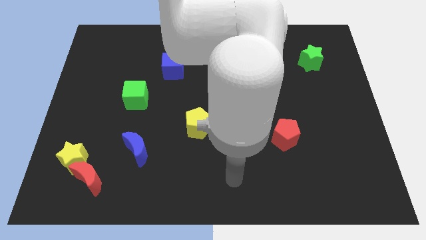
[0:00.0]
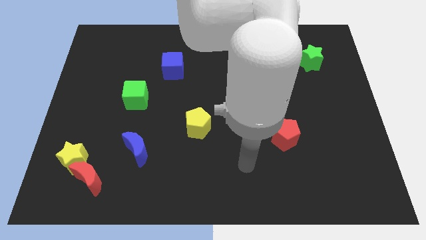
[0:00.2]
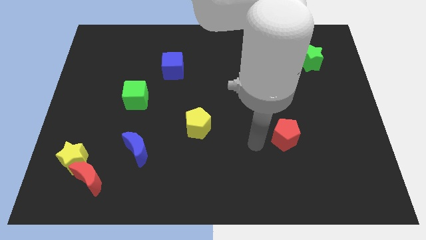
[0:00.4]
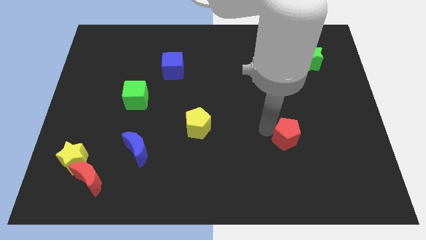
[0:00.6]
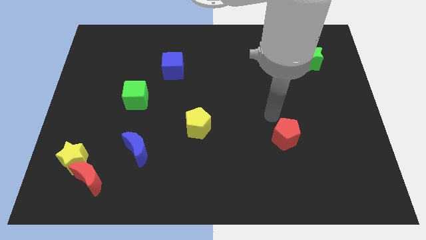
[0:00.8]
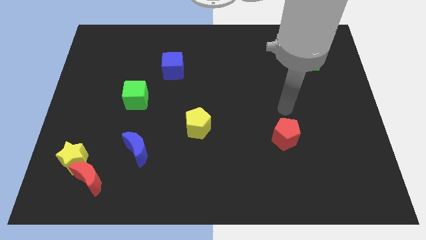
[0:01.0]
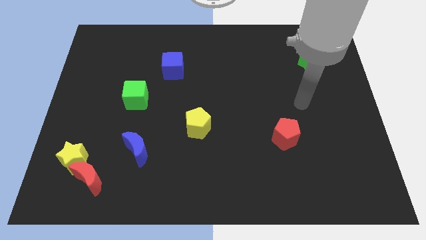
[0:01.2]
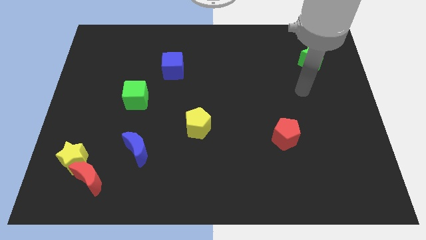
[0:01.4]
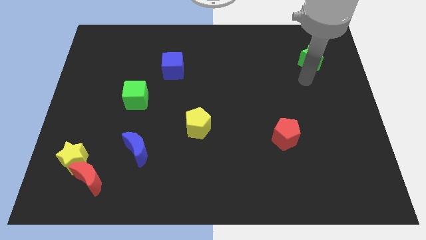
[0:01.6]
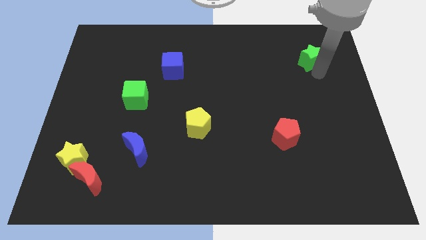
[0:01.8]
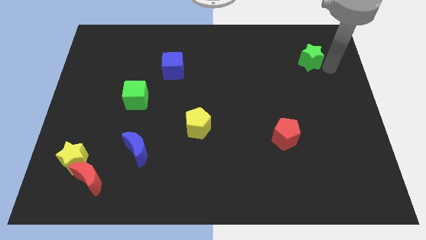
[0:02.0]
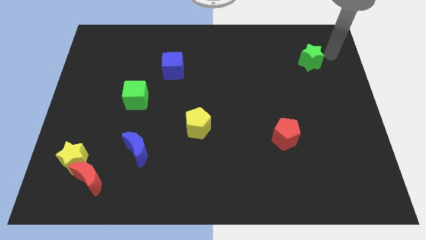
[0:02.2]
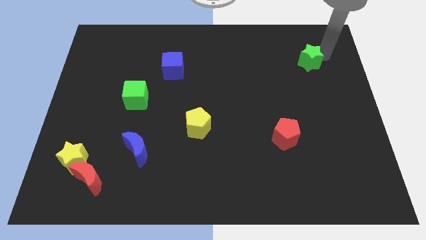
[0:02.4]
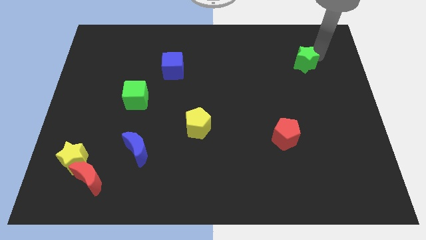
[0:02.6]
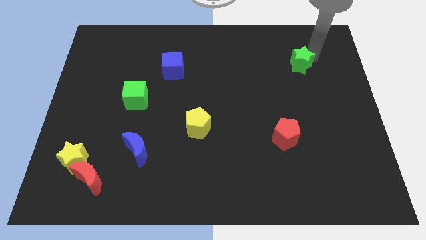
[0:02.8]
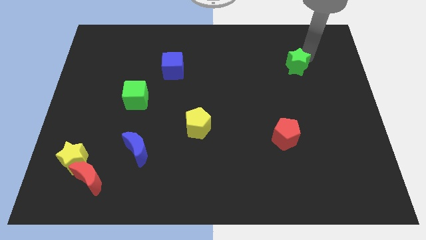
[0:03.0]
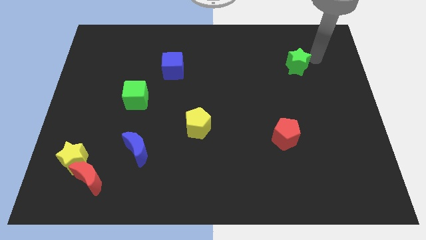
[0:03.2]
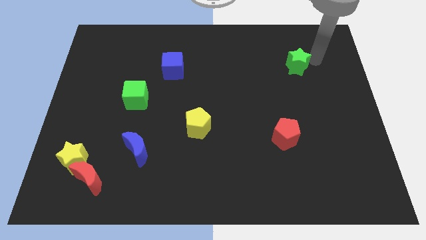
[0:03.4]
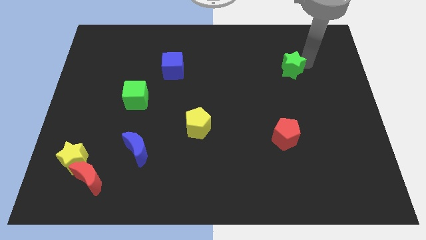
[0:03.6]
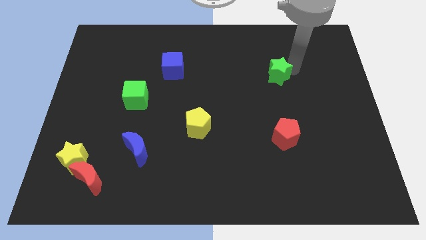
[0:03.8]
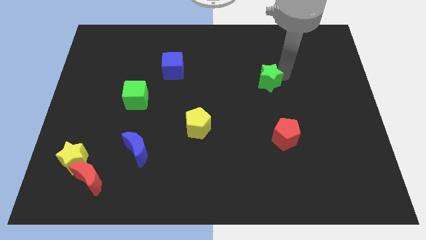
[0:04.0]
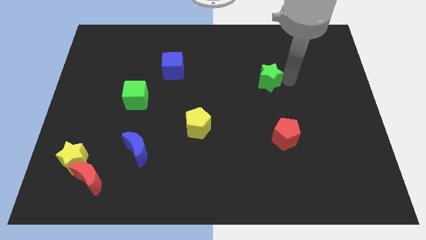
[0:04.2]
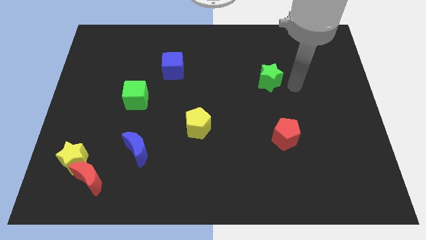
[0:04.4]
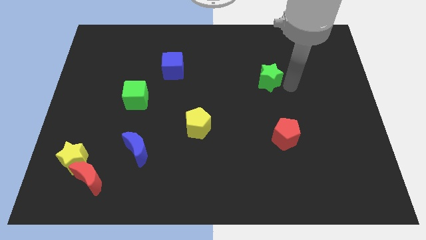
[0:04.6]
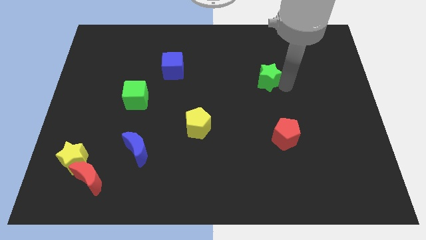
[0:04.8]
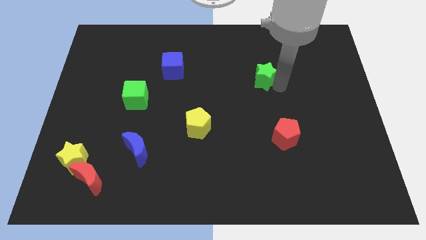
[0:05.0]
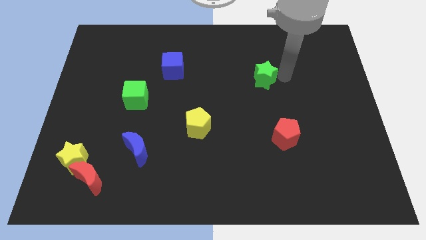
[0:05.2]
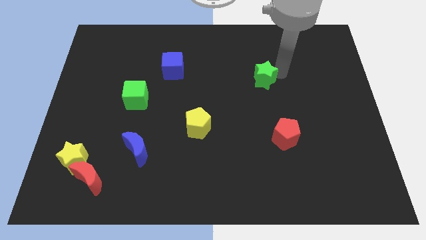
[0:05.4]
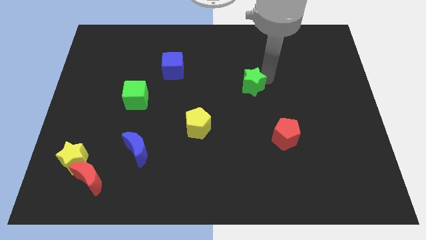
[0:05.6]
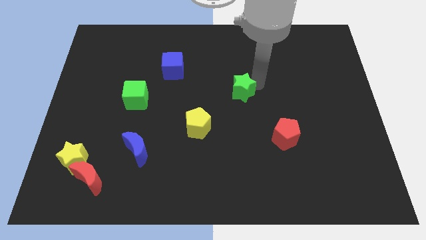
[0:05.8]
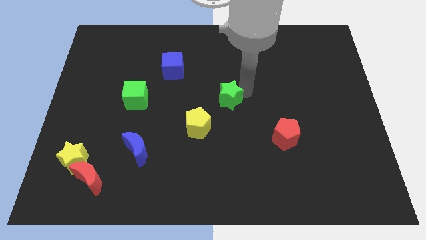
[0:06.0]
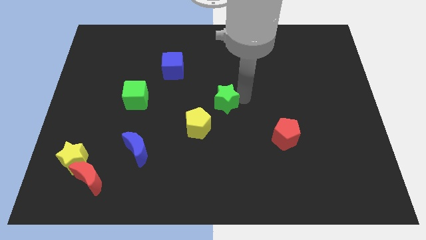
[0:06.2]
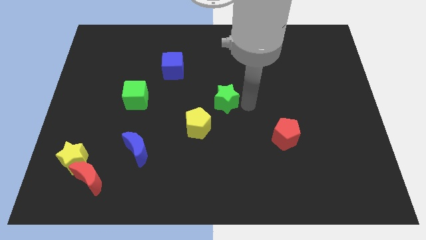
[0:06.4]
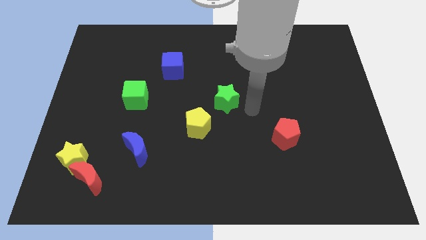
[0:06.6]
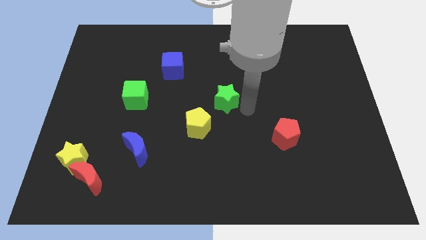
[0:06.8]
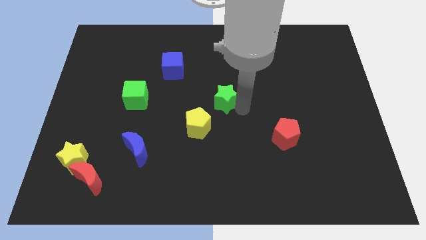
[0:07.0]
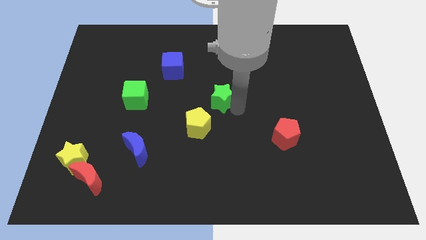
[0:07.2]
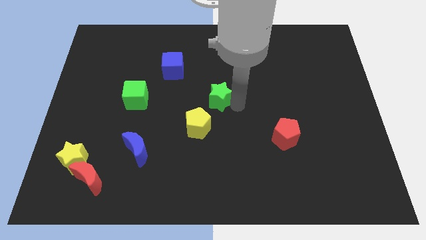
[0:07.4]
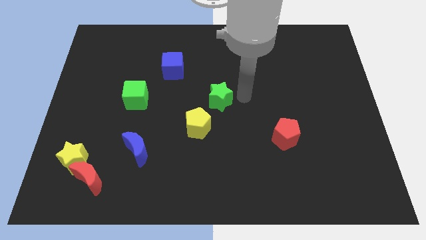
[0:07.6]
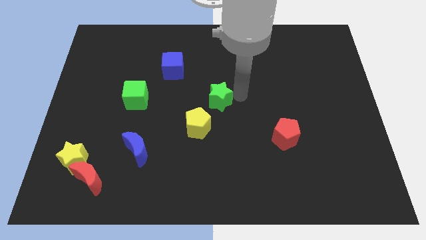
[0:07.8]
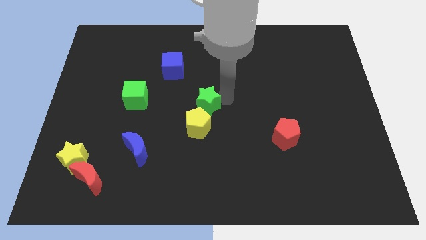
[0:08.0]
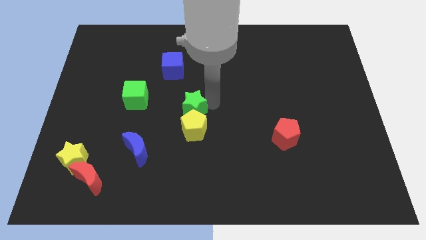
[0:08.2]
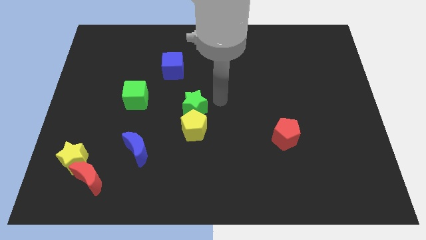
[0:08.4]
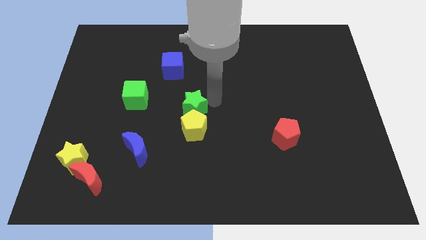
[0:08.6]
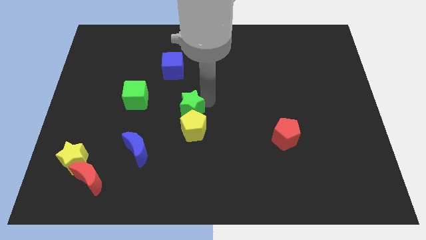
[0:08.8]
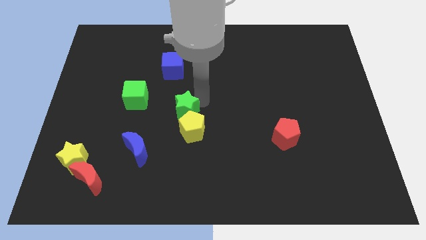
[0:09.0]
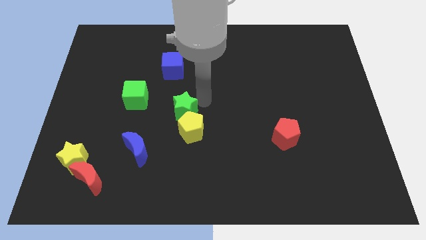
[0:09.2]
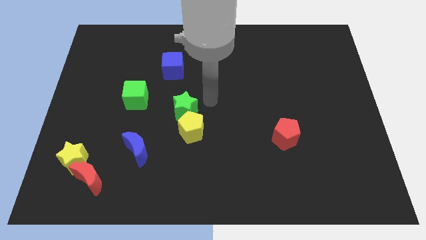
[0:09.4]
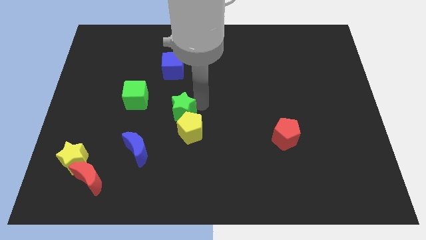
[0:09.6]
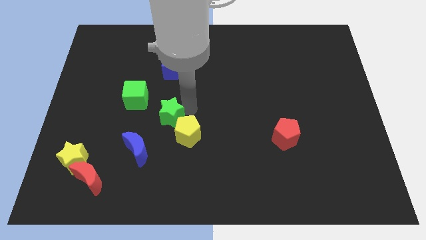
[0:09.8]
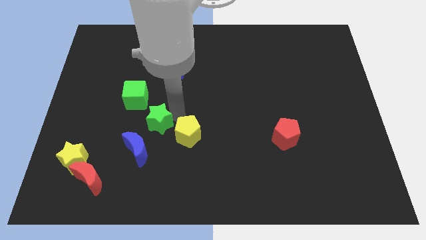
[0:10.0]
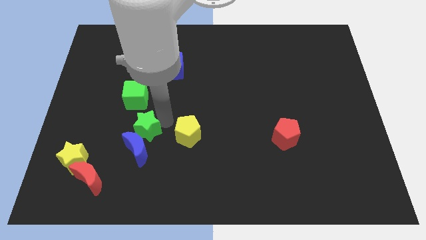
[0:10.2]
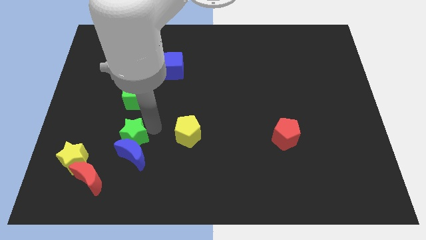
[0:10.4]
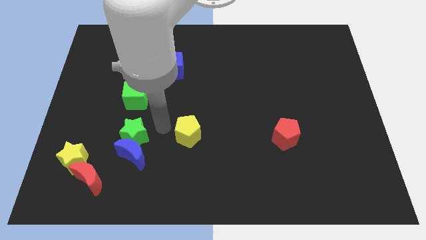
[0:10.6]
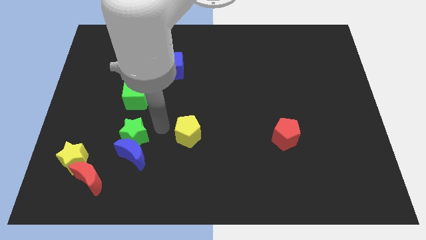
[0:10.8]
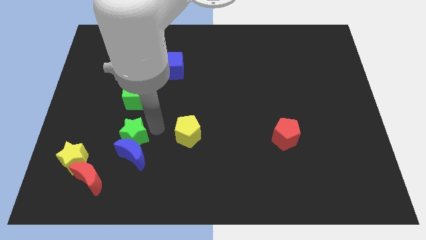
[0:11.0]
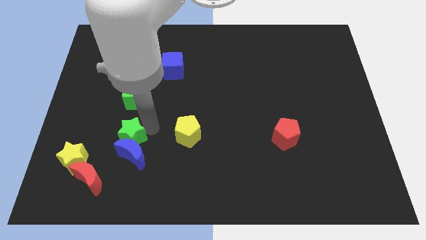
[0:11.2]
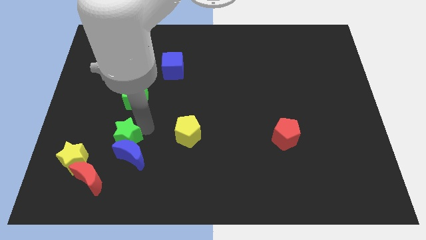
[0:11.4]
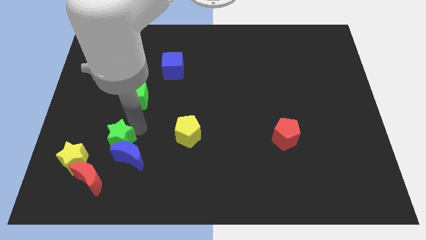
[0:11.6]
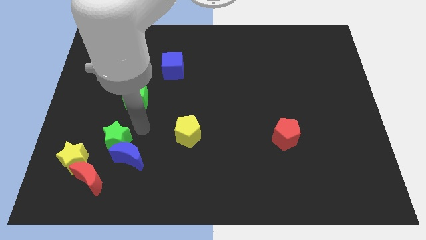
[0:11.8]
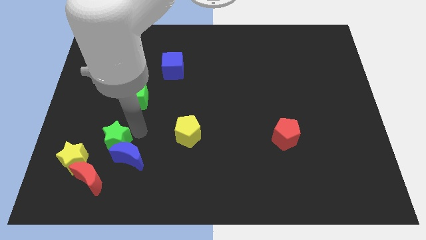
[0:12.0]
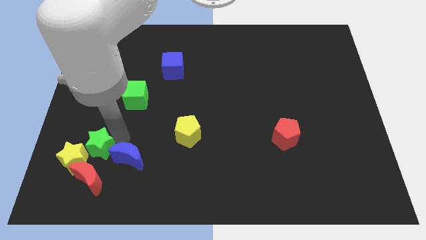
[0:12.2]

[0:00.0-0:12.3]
put the green star to the yellow star
